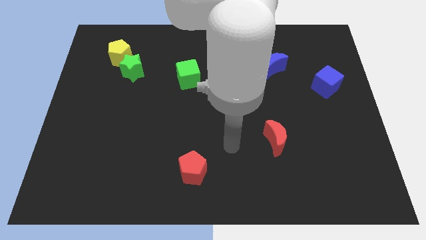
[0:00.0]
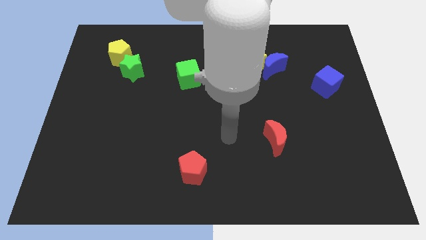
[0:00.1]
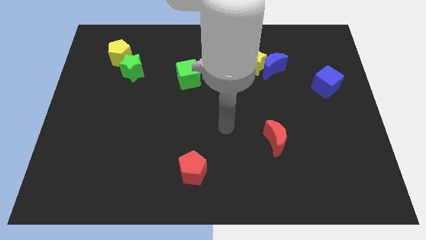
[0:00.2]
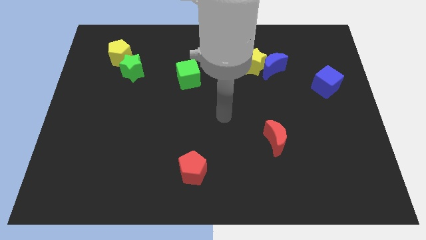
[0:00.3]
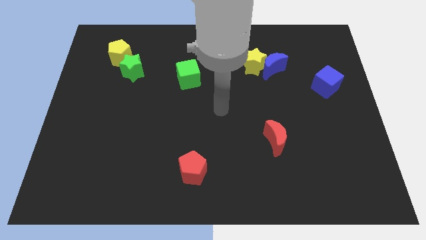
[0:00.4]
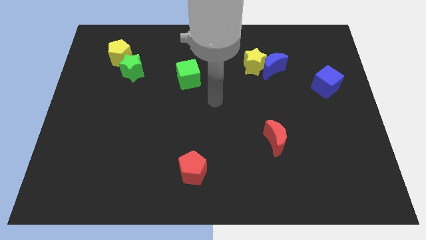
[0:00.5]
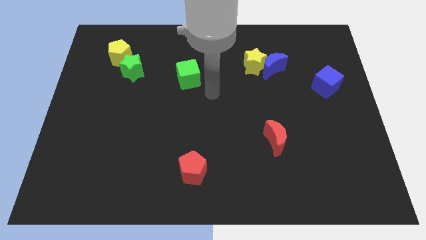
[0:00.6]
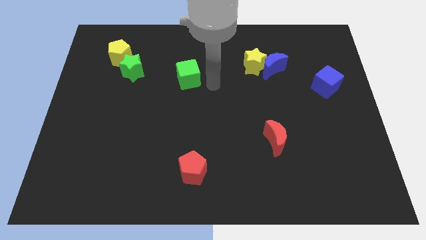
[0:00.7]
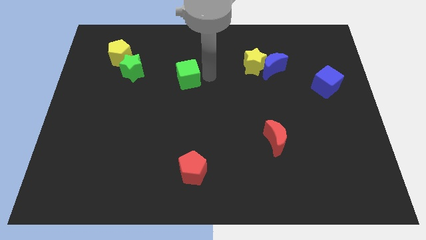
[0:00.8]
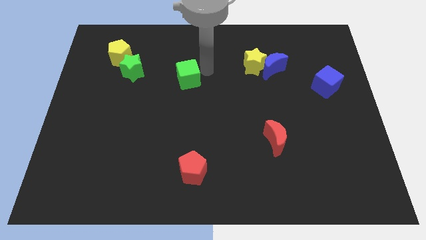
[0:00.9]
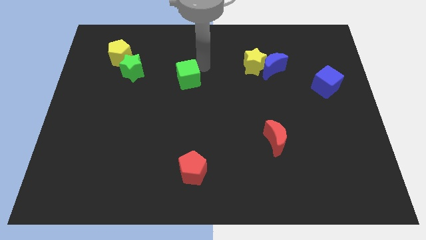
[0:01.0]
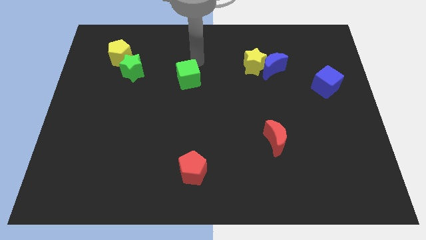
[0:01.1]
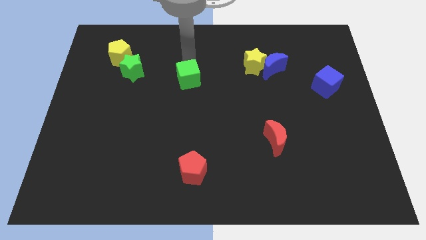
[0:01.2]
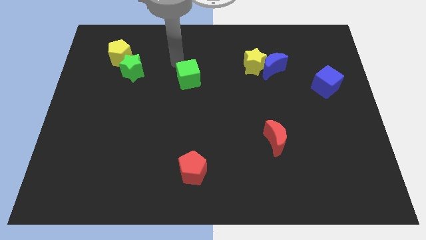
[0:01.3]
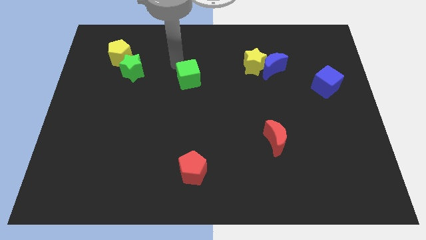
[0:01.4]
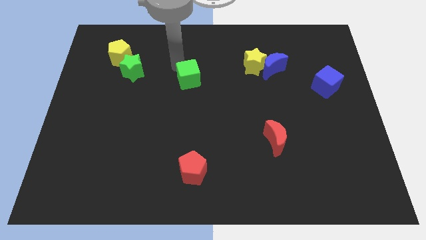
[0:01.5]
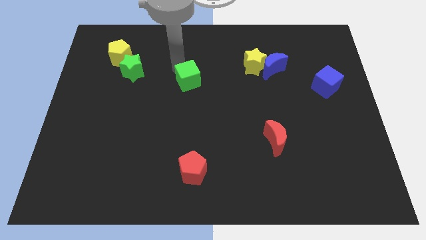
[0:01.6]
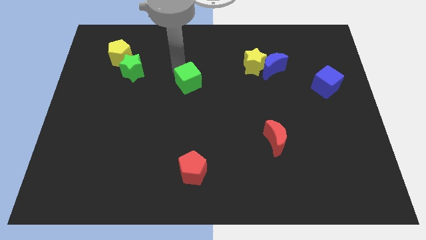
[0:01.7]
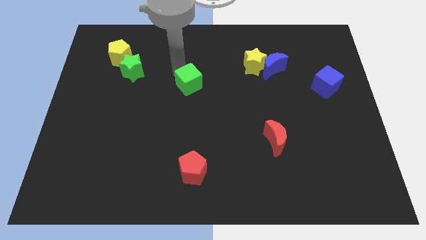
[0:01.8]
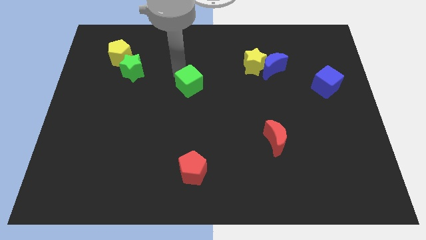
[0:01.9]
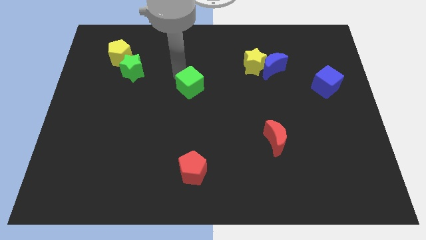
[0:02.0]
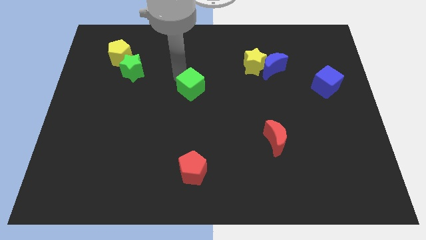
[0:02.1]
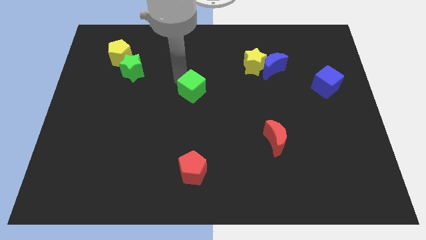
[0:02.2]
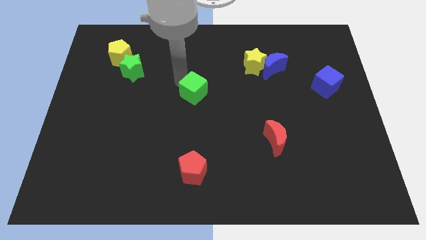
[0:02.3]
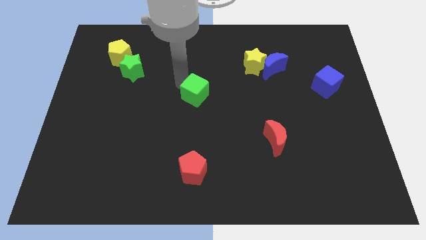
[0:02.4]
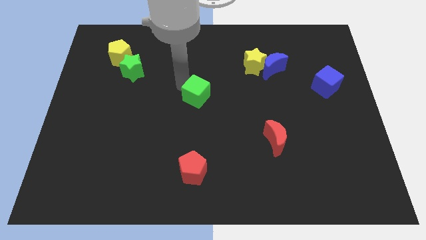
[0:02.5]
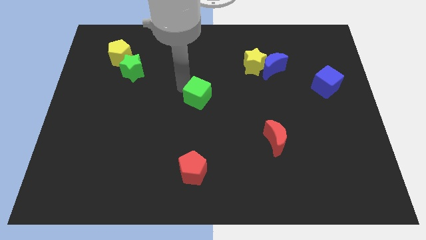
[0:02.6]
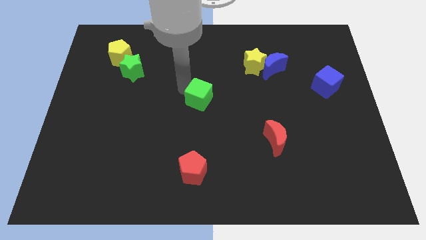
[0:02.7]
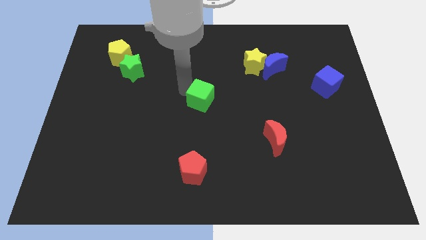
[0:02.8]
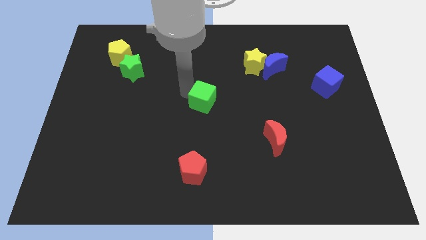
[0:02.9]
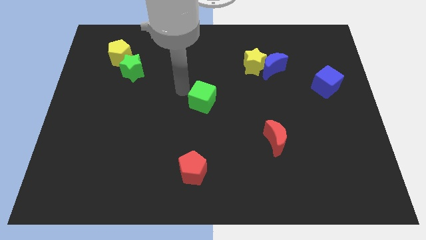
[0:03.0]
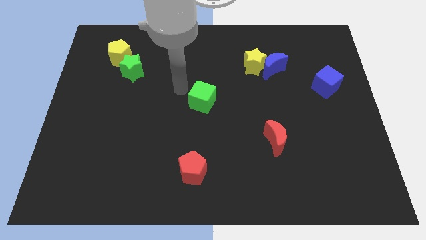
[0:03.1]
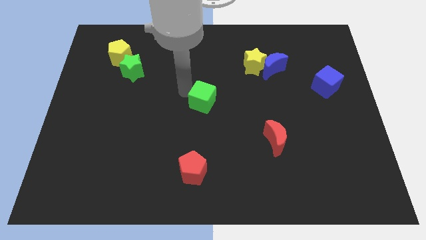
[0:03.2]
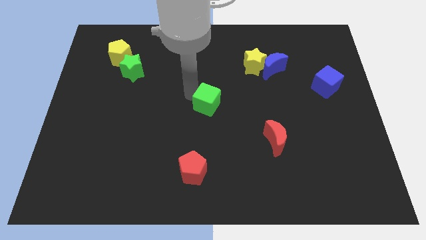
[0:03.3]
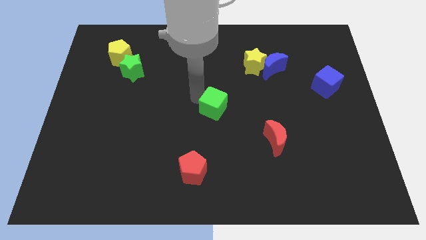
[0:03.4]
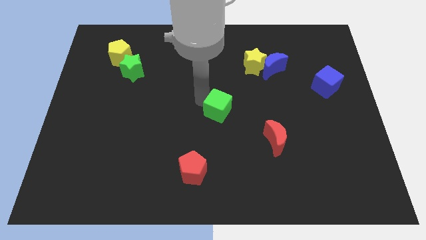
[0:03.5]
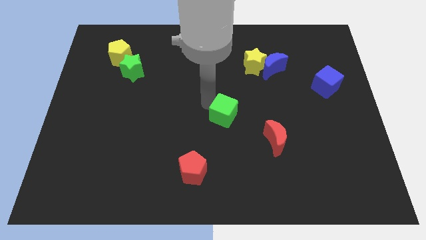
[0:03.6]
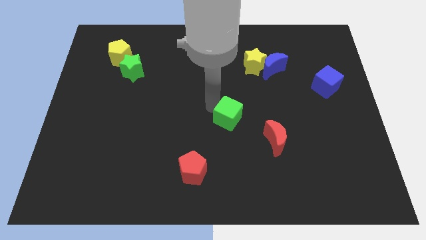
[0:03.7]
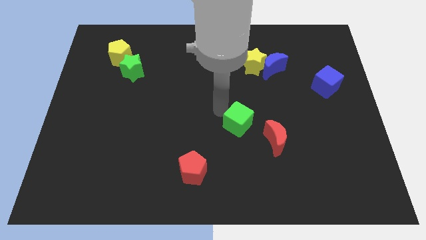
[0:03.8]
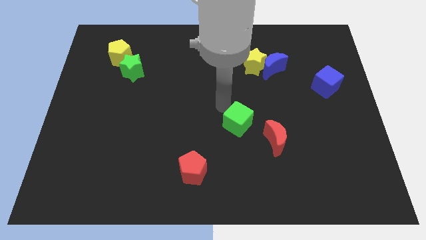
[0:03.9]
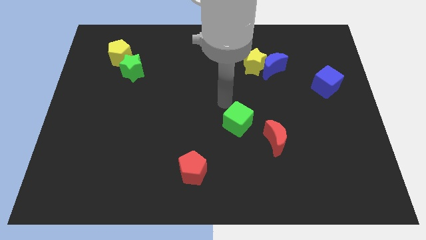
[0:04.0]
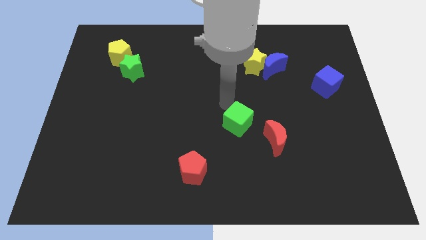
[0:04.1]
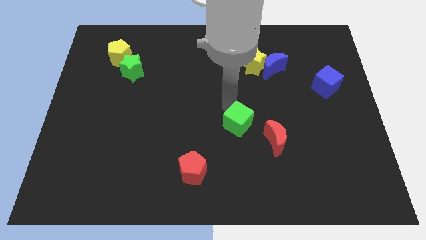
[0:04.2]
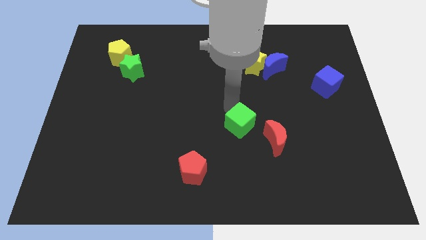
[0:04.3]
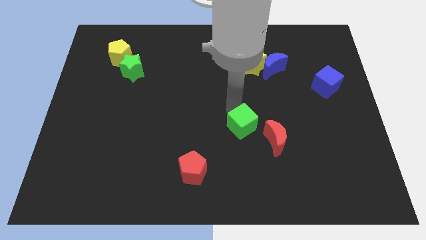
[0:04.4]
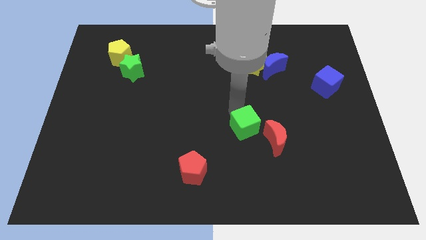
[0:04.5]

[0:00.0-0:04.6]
move the green cube downwards and to the right diagonally

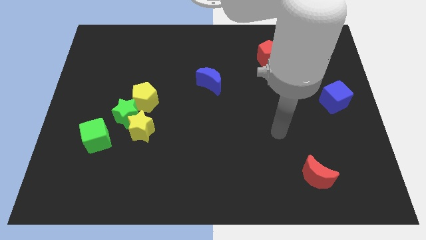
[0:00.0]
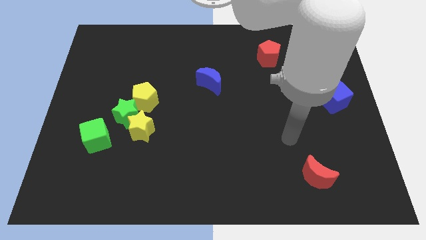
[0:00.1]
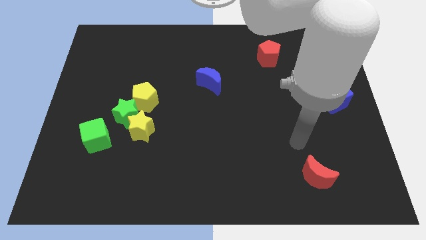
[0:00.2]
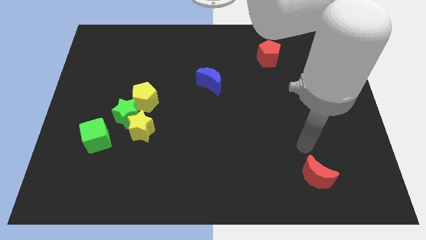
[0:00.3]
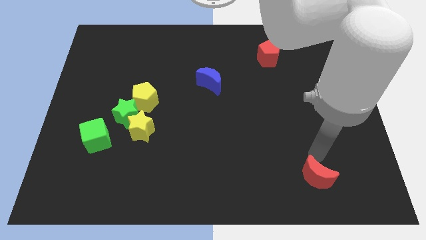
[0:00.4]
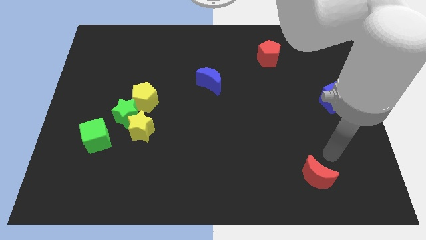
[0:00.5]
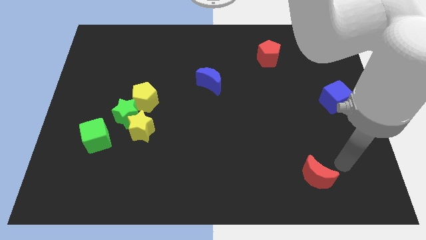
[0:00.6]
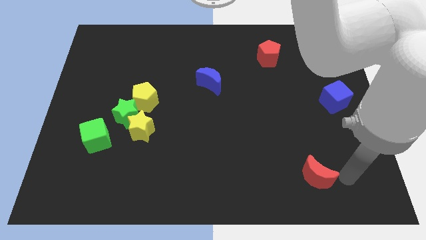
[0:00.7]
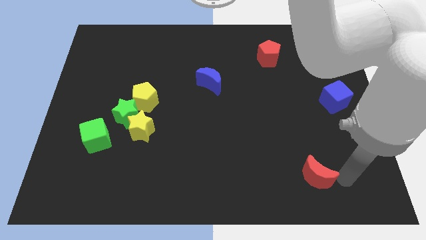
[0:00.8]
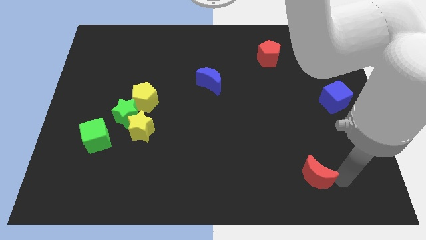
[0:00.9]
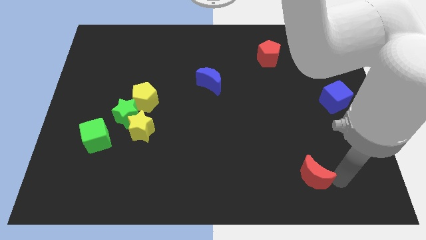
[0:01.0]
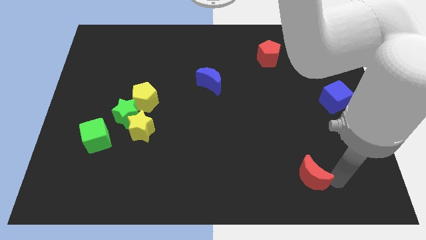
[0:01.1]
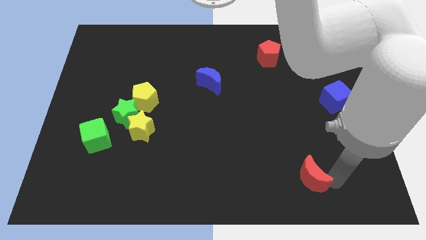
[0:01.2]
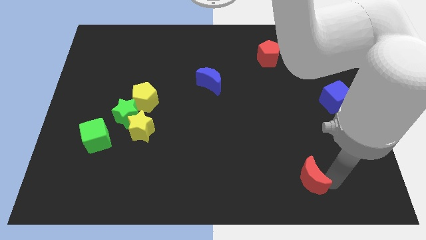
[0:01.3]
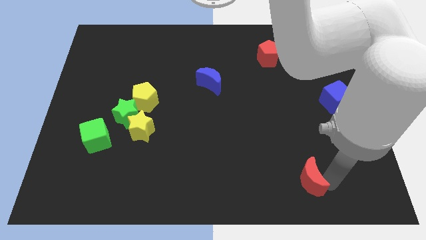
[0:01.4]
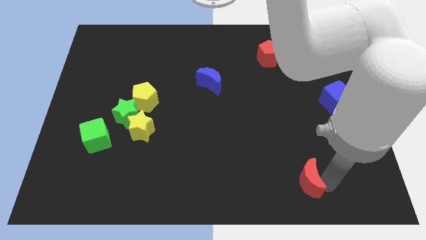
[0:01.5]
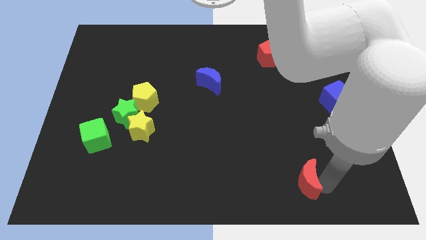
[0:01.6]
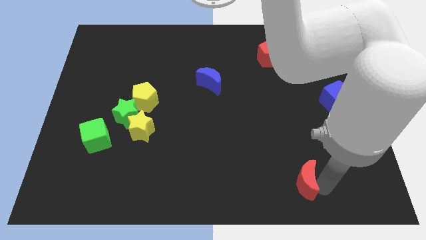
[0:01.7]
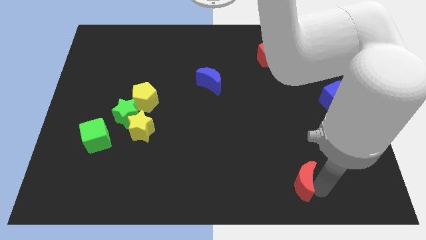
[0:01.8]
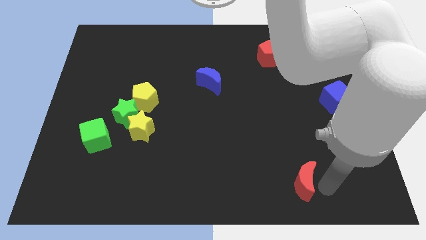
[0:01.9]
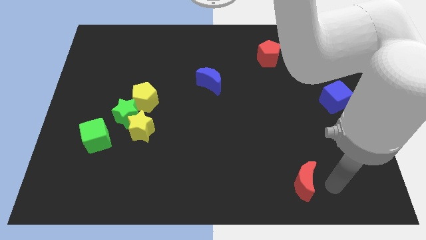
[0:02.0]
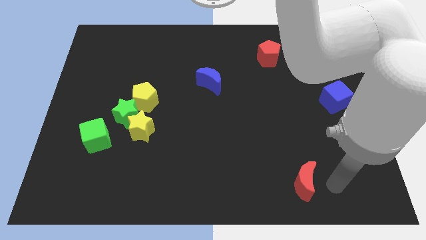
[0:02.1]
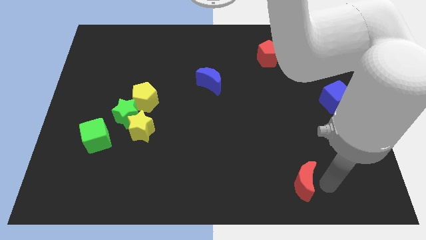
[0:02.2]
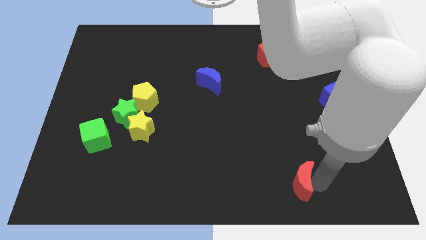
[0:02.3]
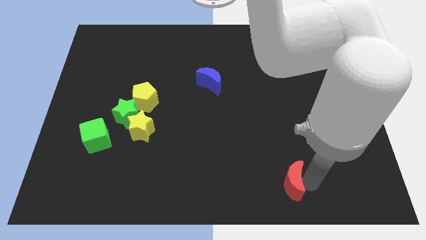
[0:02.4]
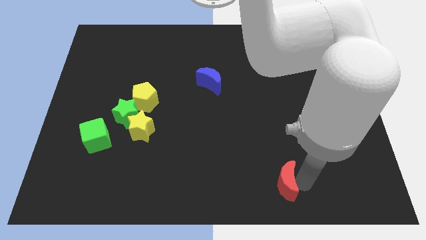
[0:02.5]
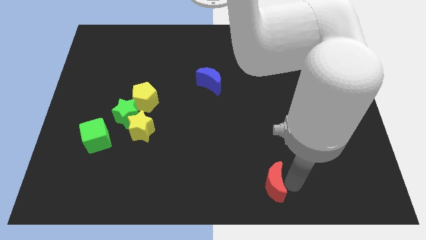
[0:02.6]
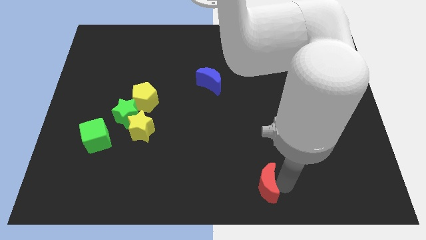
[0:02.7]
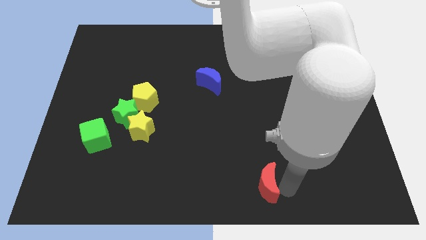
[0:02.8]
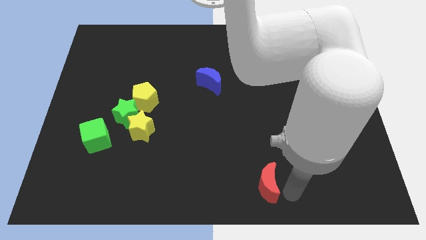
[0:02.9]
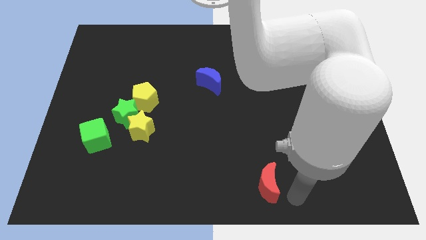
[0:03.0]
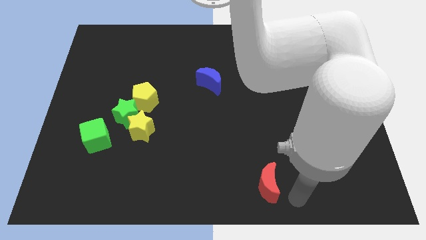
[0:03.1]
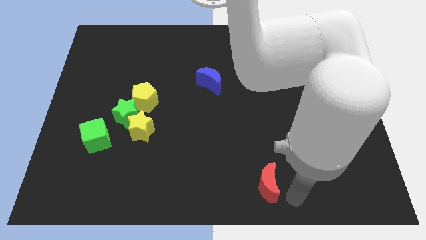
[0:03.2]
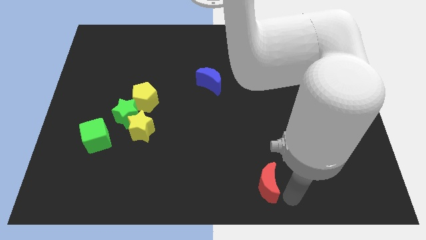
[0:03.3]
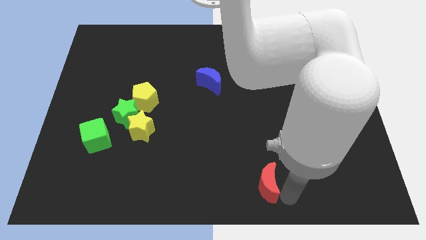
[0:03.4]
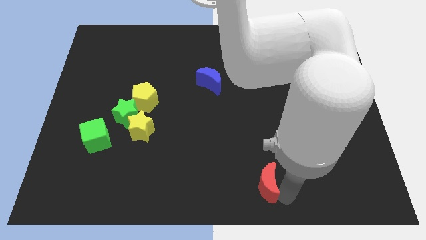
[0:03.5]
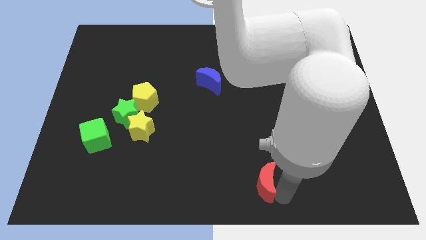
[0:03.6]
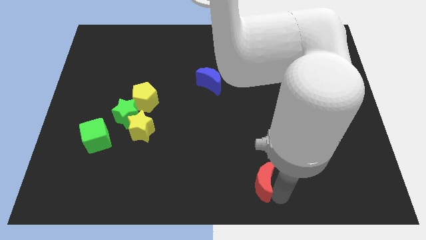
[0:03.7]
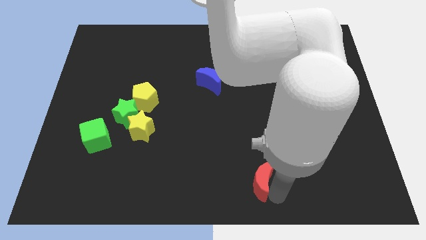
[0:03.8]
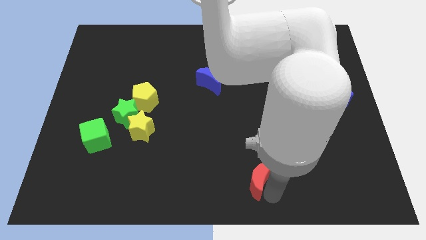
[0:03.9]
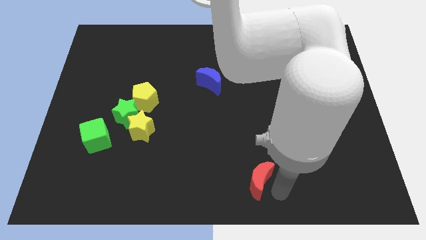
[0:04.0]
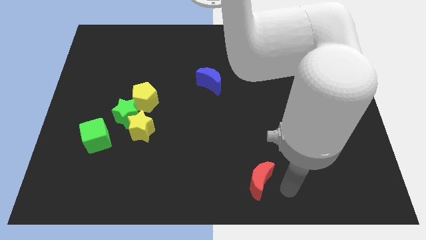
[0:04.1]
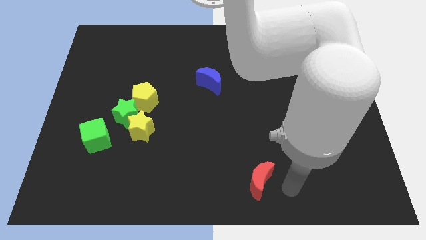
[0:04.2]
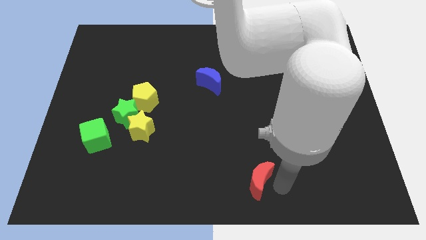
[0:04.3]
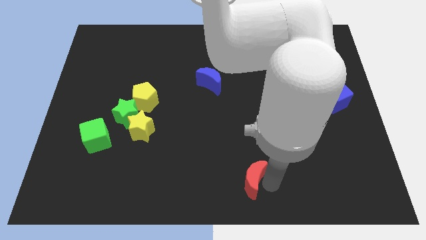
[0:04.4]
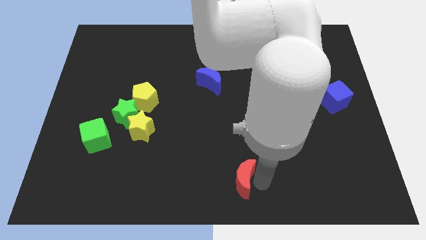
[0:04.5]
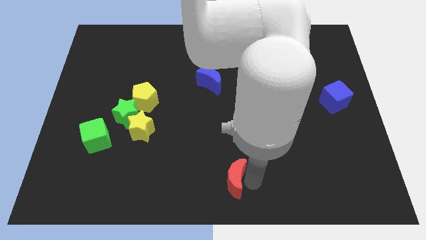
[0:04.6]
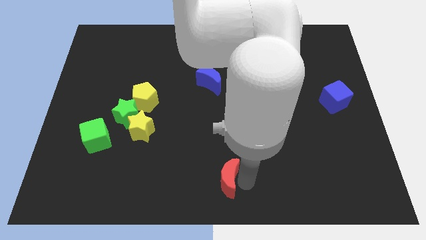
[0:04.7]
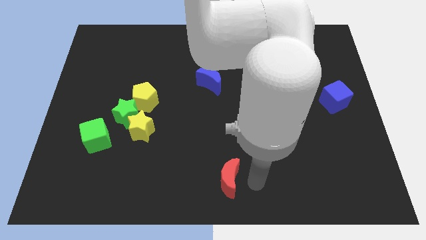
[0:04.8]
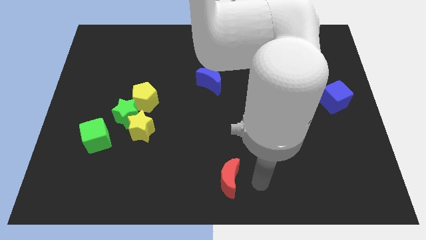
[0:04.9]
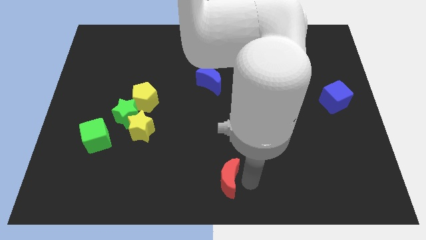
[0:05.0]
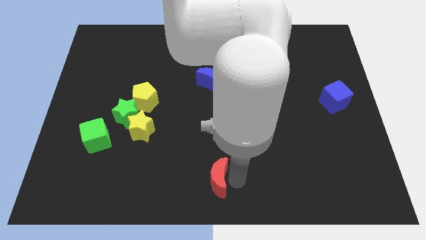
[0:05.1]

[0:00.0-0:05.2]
push the red moon to the left
